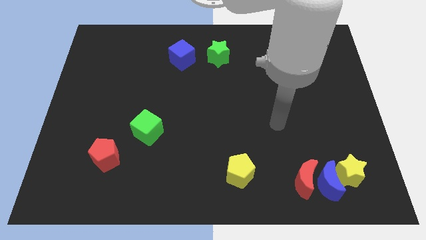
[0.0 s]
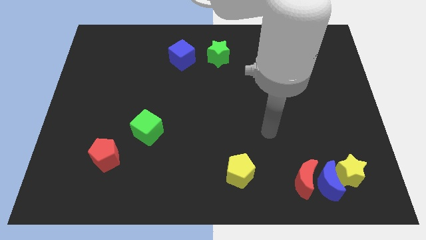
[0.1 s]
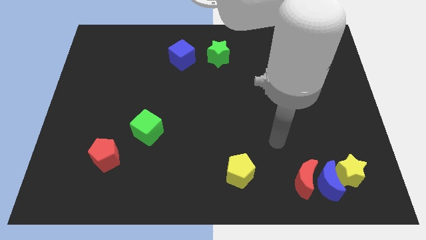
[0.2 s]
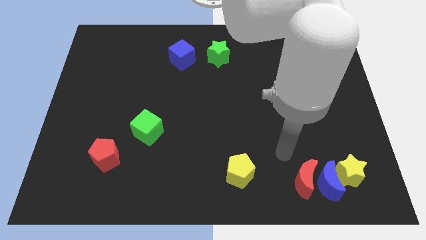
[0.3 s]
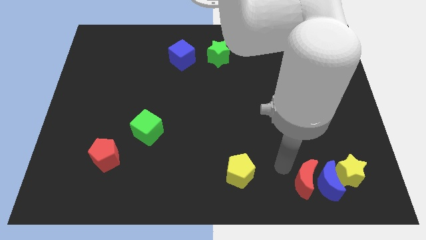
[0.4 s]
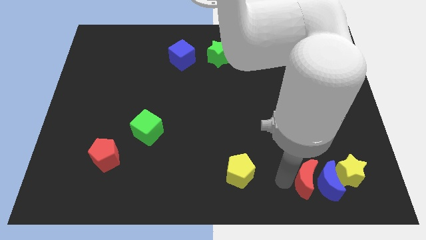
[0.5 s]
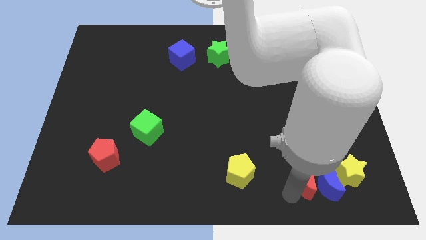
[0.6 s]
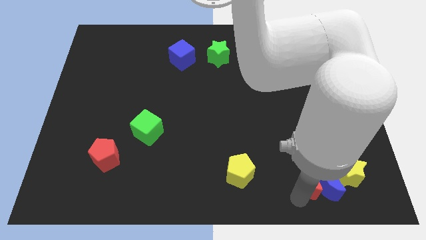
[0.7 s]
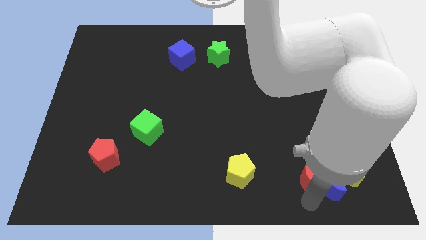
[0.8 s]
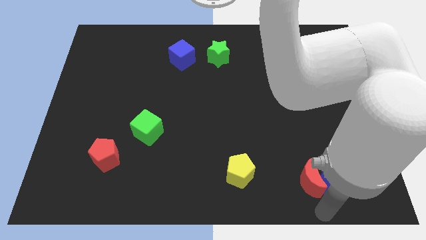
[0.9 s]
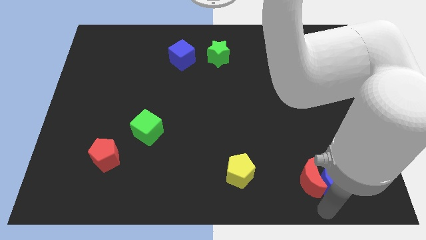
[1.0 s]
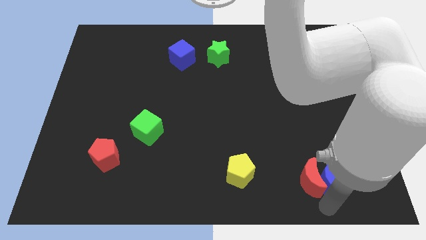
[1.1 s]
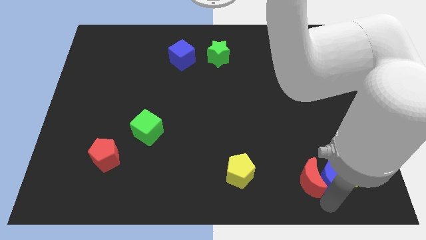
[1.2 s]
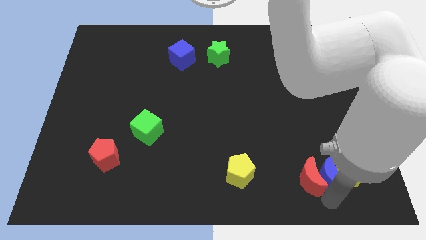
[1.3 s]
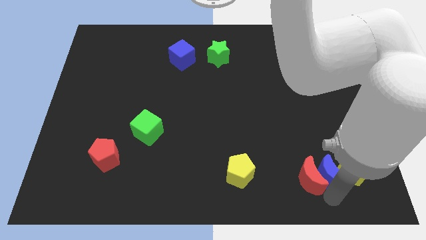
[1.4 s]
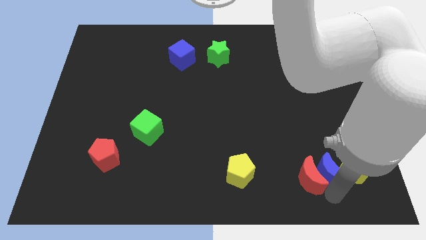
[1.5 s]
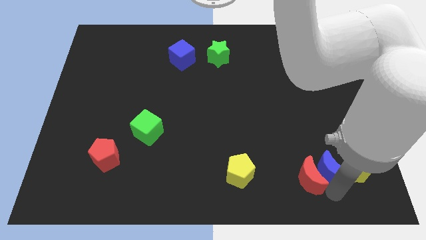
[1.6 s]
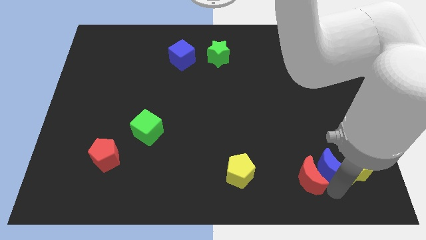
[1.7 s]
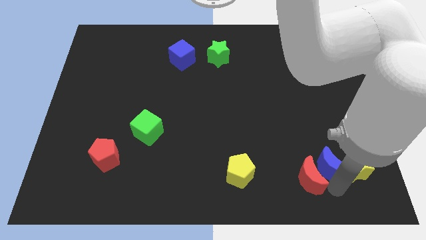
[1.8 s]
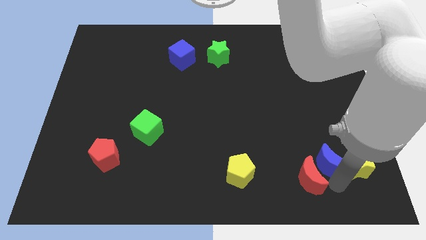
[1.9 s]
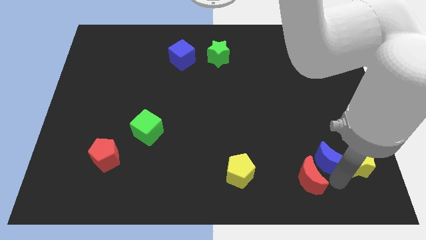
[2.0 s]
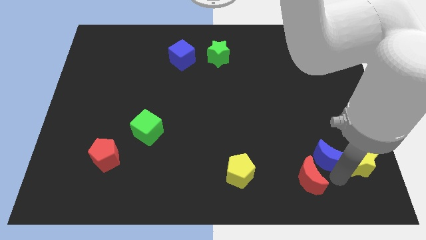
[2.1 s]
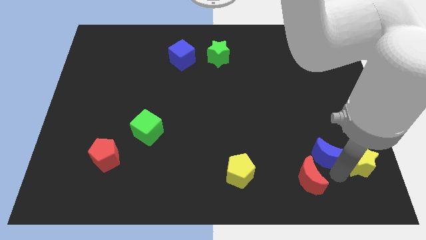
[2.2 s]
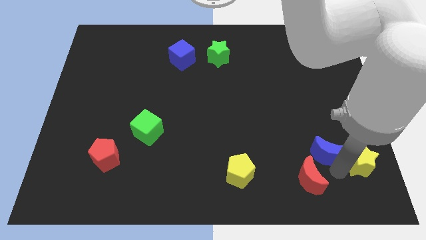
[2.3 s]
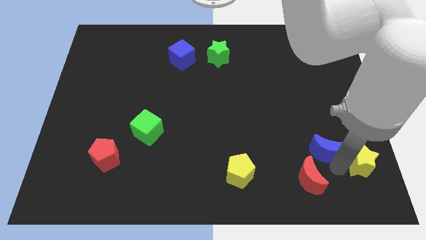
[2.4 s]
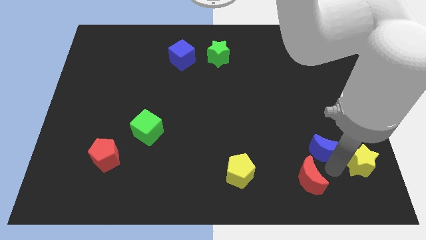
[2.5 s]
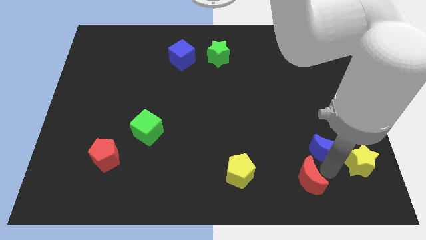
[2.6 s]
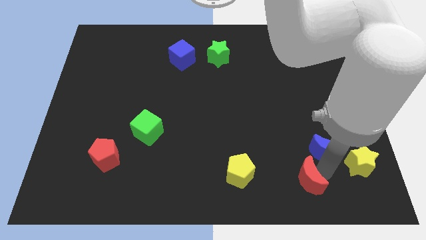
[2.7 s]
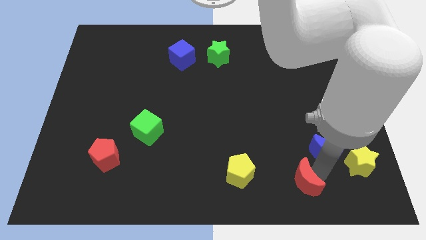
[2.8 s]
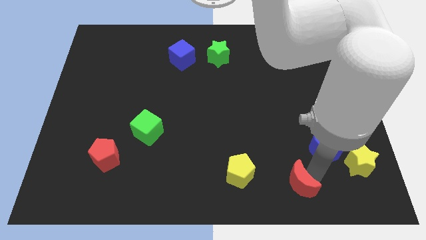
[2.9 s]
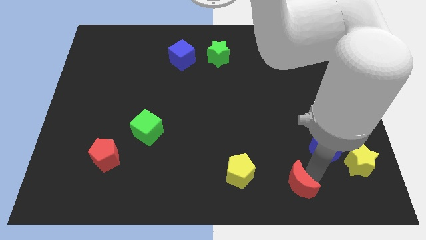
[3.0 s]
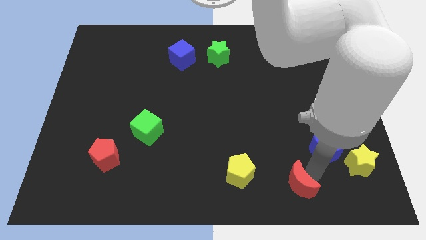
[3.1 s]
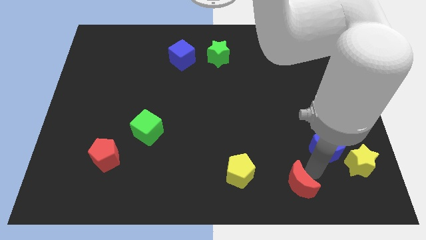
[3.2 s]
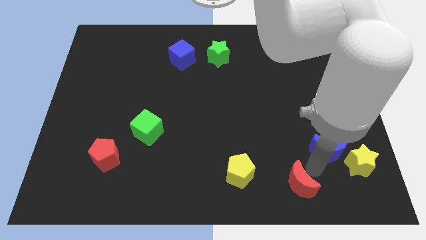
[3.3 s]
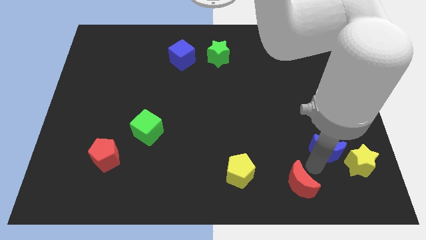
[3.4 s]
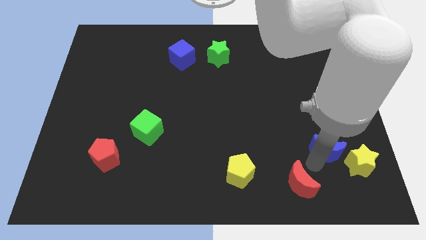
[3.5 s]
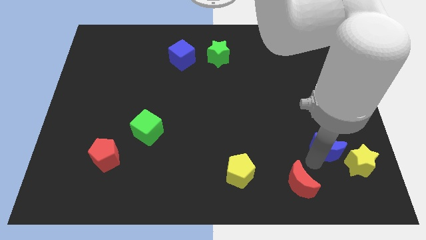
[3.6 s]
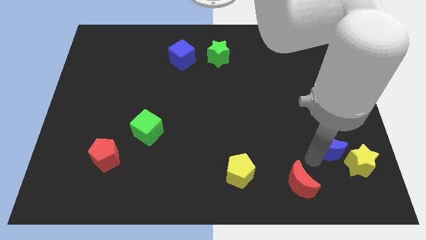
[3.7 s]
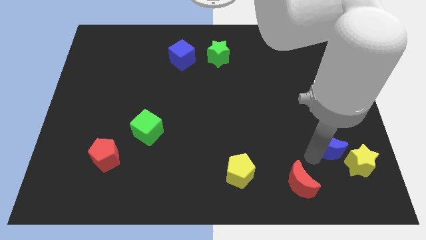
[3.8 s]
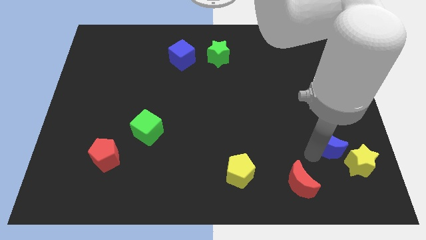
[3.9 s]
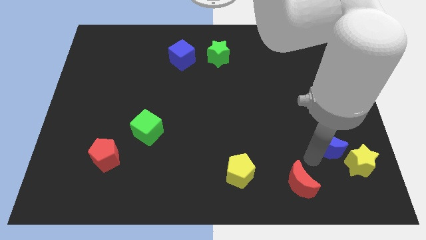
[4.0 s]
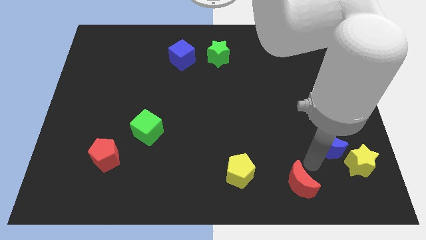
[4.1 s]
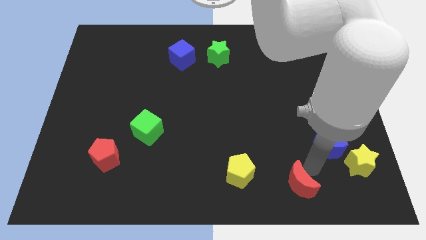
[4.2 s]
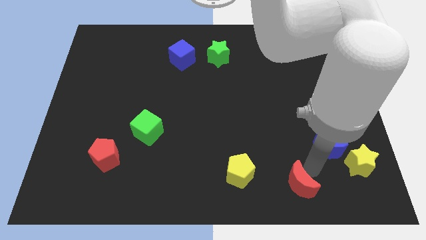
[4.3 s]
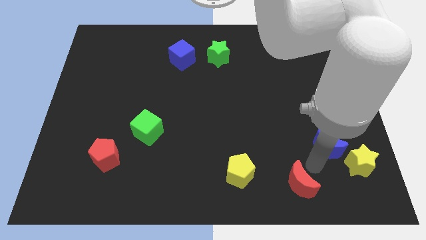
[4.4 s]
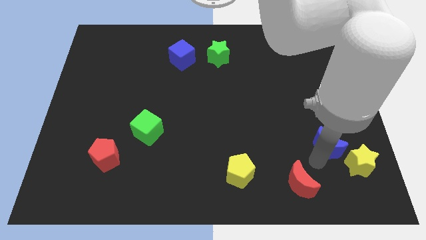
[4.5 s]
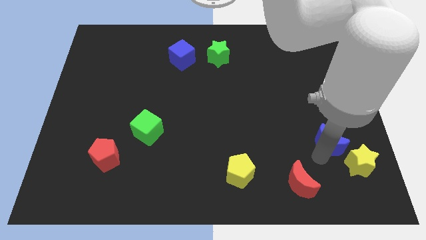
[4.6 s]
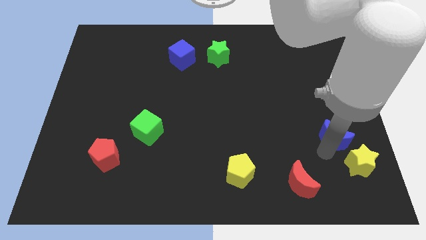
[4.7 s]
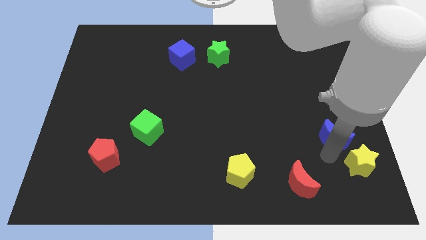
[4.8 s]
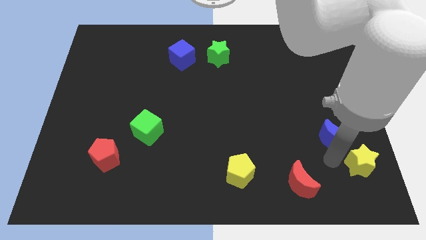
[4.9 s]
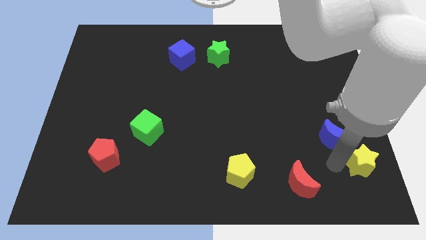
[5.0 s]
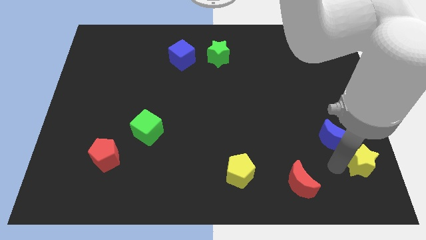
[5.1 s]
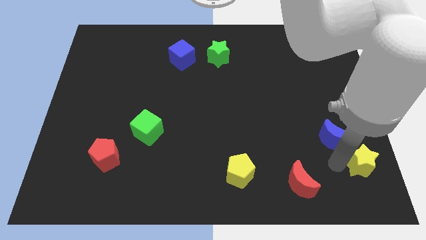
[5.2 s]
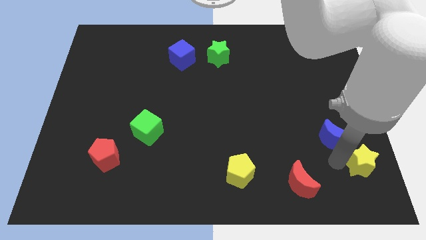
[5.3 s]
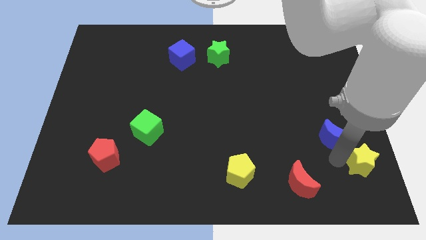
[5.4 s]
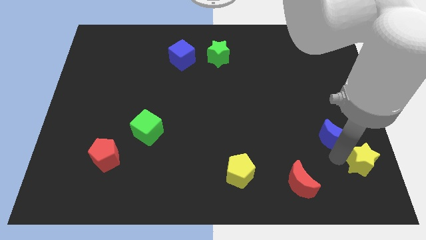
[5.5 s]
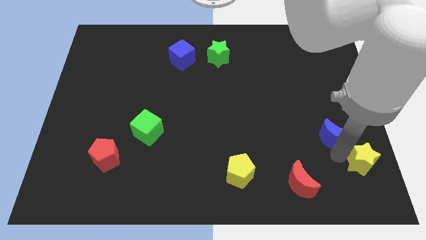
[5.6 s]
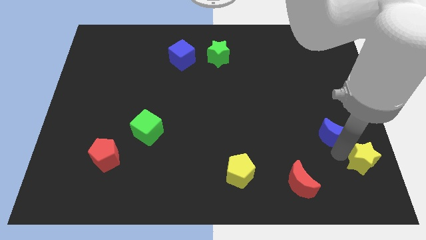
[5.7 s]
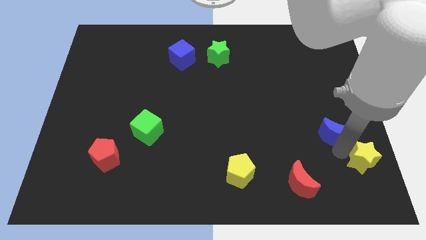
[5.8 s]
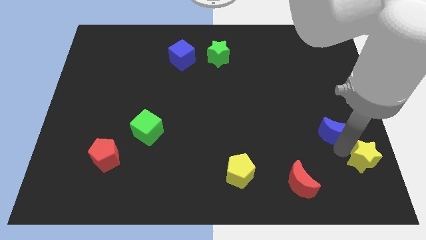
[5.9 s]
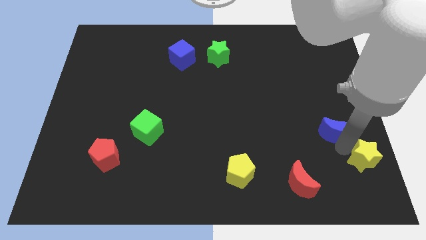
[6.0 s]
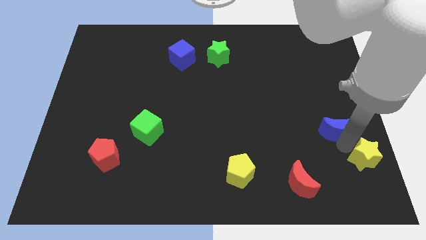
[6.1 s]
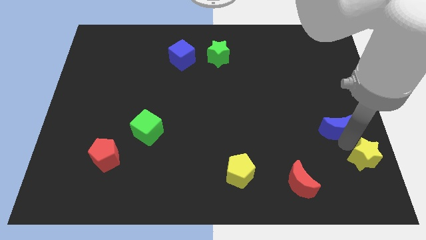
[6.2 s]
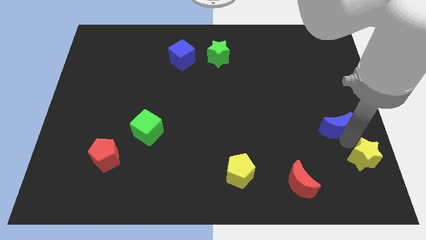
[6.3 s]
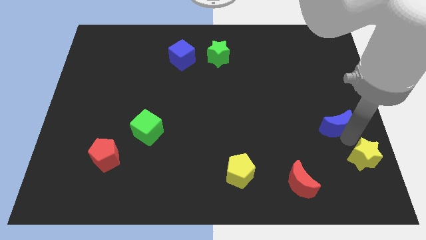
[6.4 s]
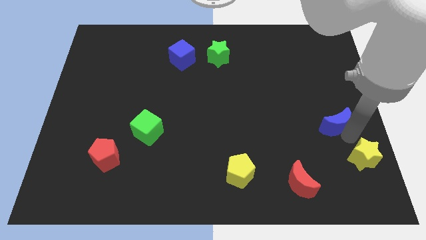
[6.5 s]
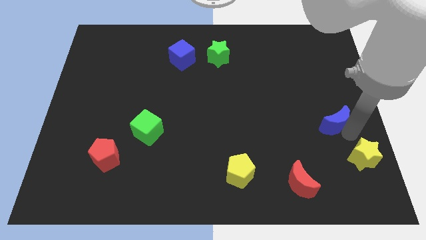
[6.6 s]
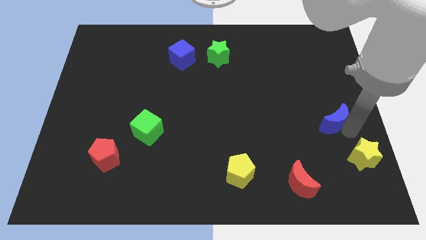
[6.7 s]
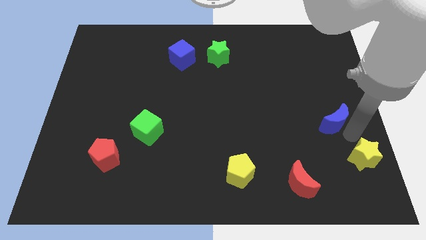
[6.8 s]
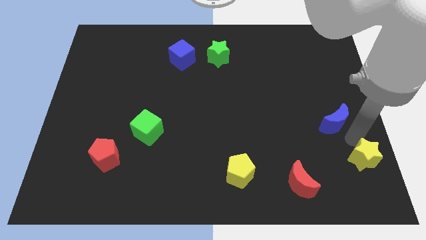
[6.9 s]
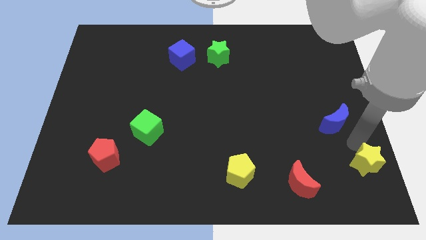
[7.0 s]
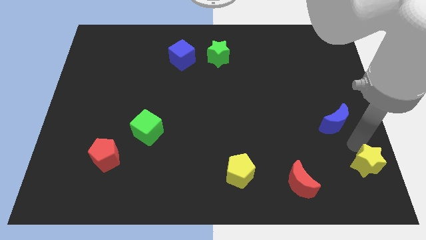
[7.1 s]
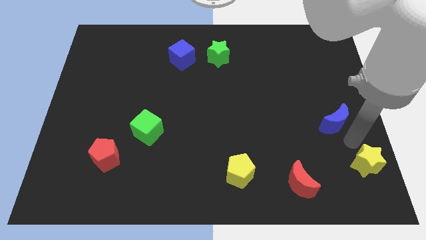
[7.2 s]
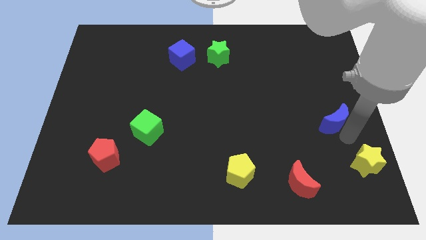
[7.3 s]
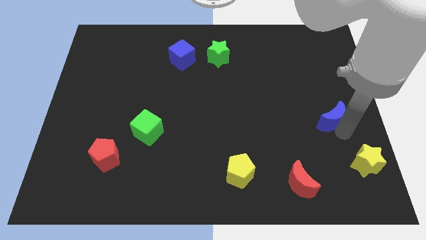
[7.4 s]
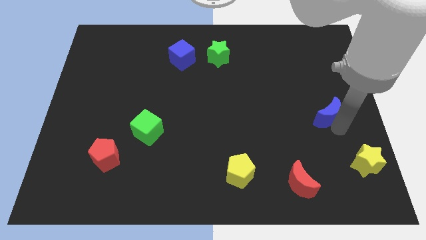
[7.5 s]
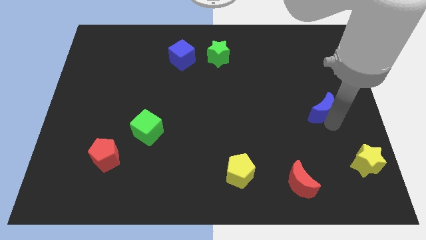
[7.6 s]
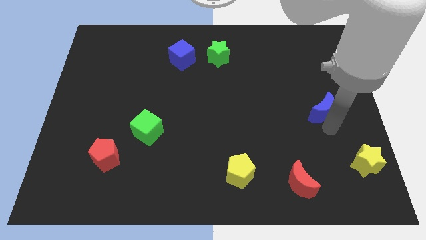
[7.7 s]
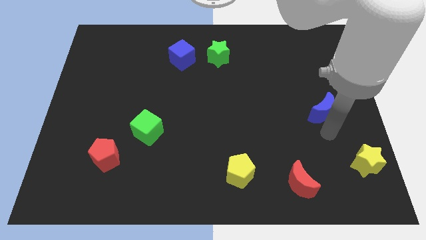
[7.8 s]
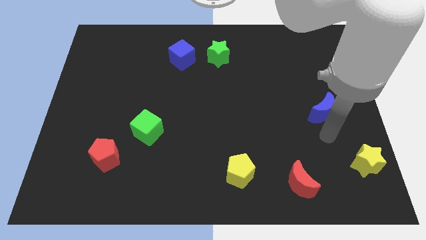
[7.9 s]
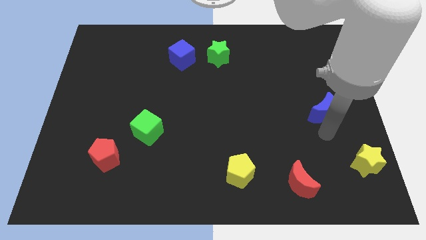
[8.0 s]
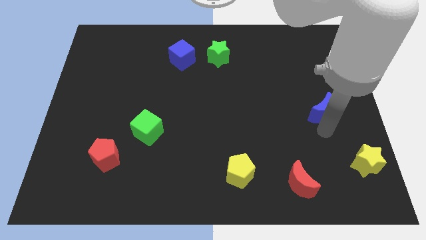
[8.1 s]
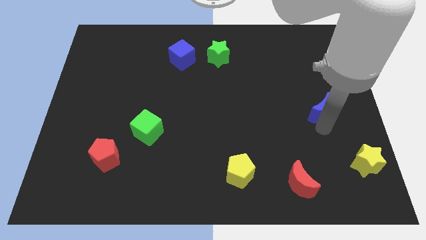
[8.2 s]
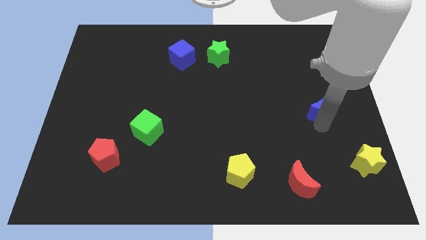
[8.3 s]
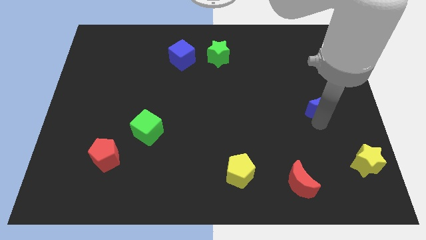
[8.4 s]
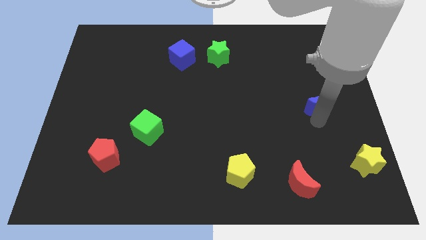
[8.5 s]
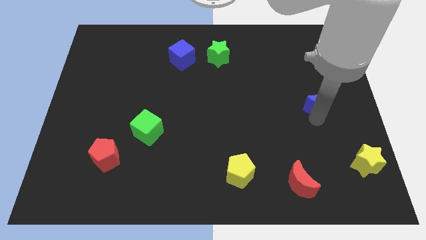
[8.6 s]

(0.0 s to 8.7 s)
move the blue moon up
